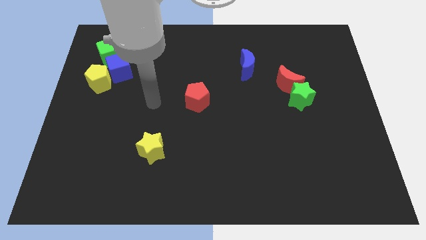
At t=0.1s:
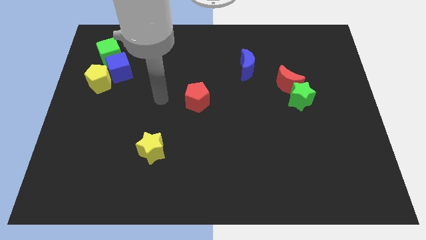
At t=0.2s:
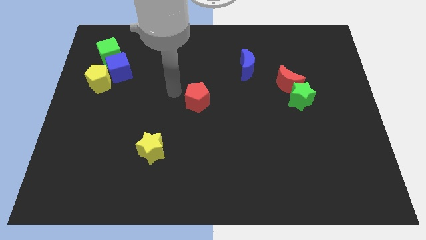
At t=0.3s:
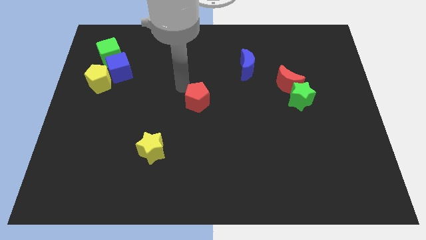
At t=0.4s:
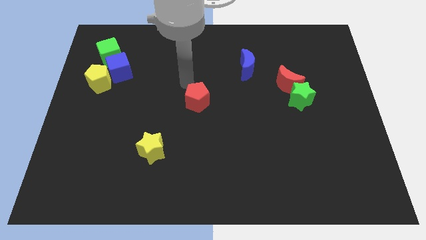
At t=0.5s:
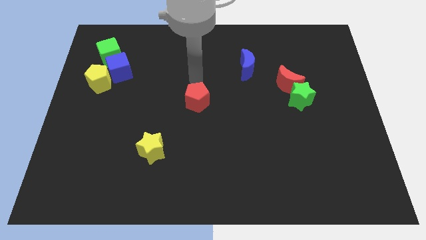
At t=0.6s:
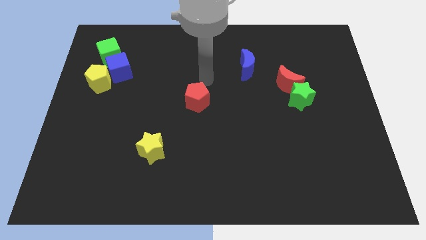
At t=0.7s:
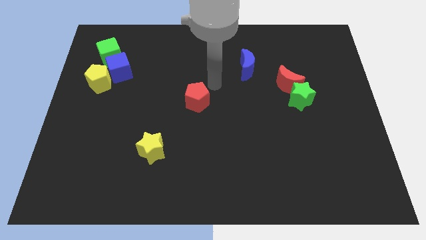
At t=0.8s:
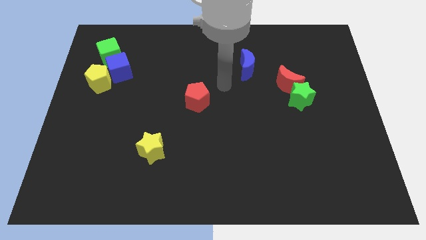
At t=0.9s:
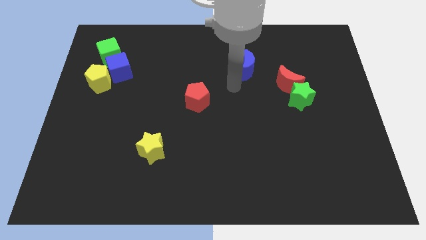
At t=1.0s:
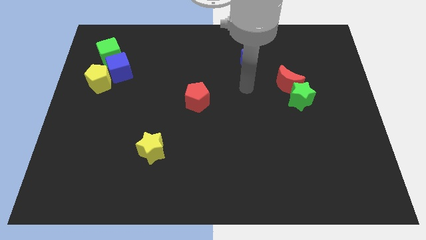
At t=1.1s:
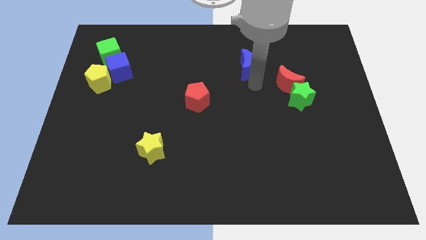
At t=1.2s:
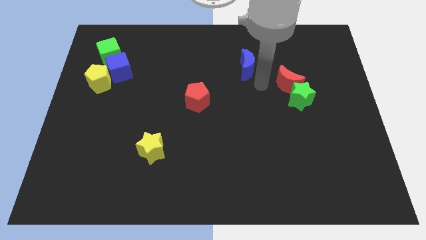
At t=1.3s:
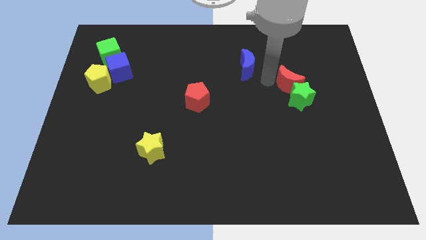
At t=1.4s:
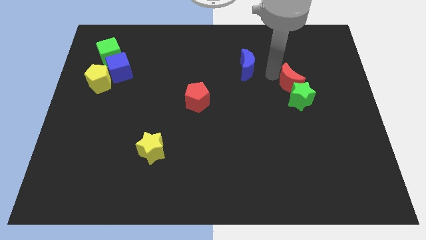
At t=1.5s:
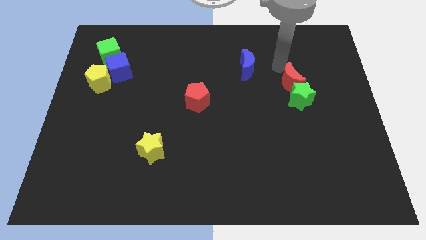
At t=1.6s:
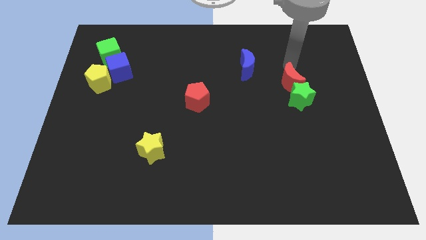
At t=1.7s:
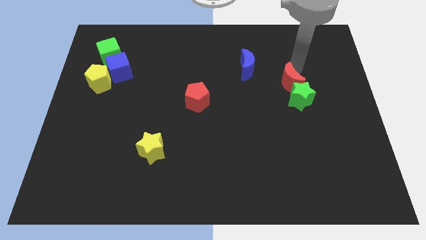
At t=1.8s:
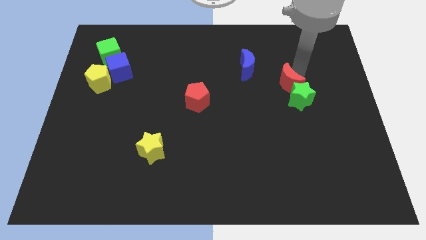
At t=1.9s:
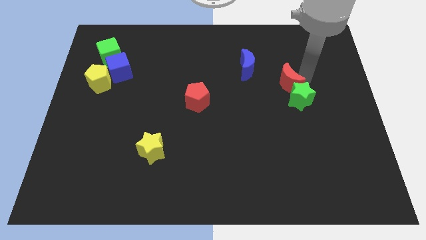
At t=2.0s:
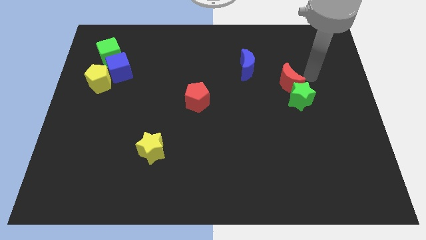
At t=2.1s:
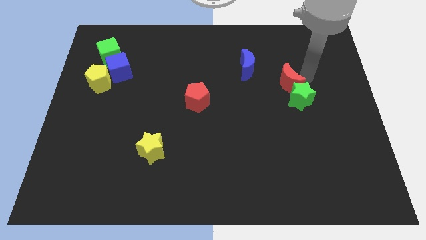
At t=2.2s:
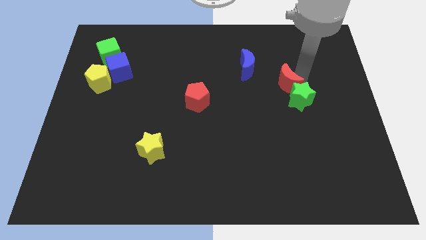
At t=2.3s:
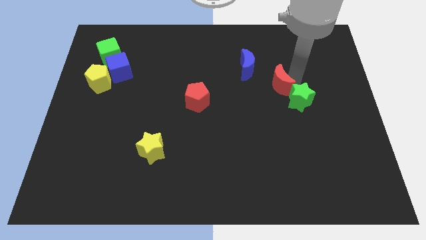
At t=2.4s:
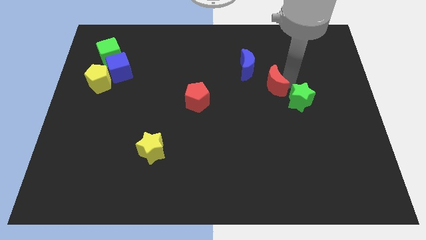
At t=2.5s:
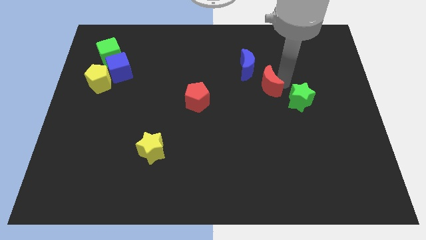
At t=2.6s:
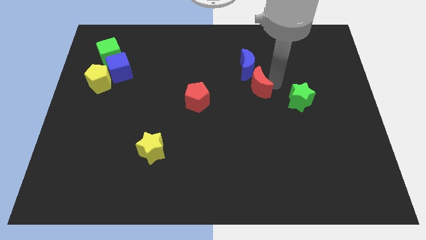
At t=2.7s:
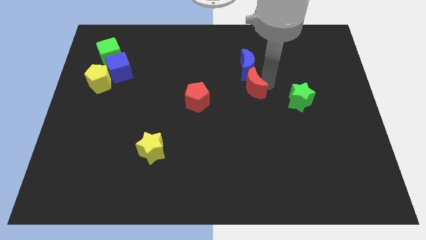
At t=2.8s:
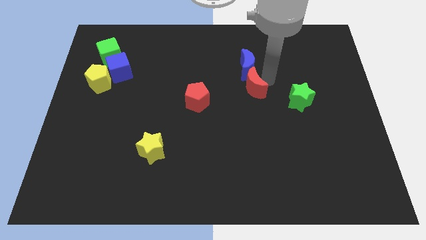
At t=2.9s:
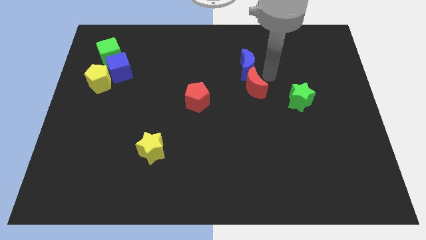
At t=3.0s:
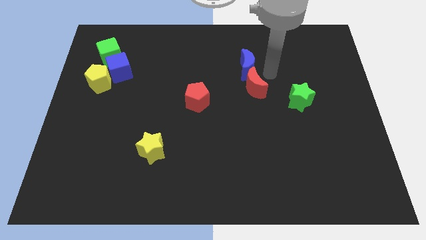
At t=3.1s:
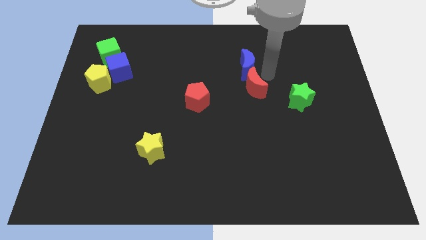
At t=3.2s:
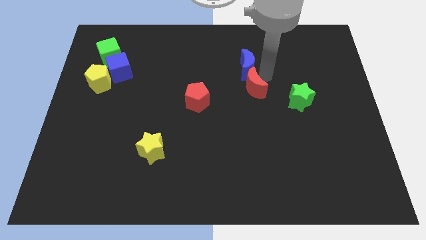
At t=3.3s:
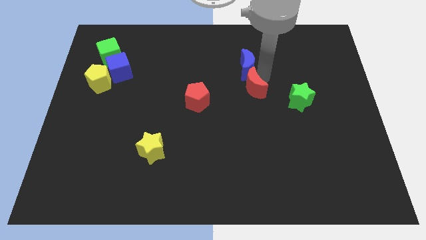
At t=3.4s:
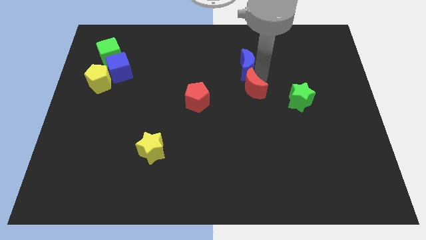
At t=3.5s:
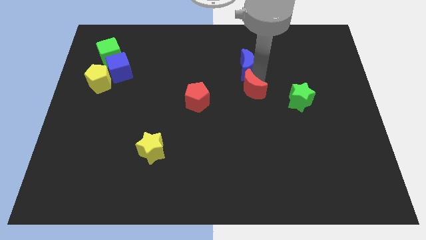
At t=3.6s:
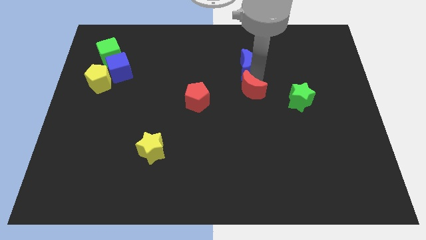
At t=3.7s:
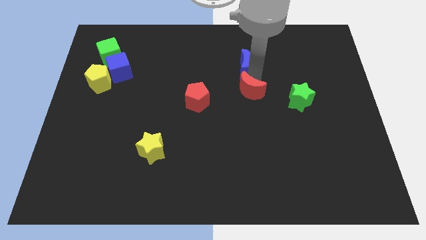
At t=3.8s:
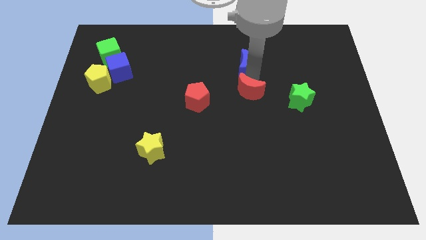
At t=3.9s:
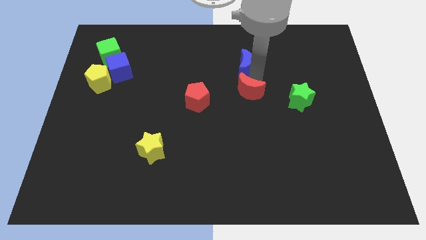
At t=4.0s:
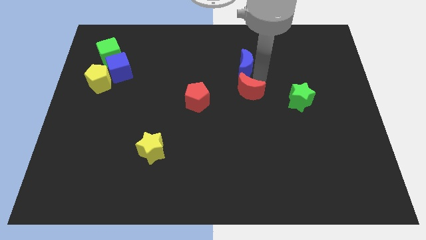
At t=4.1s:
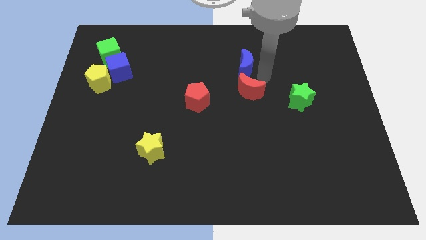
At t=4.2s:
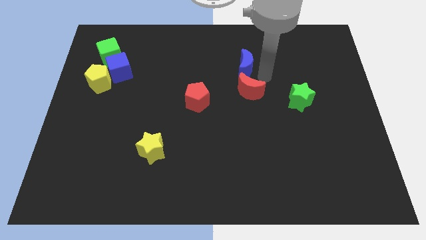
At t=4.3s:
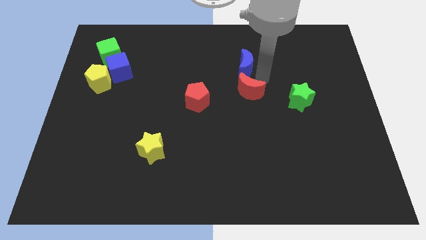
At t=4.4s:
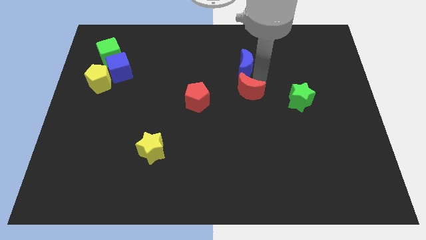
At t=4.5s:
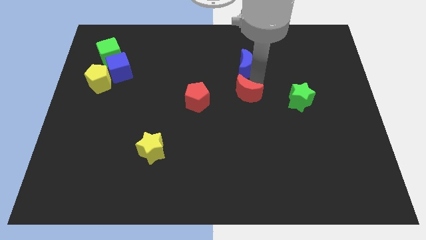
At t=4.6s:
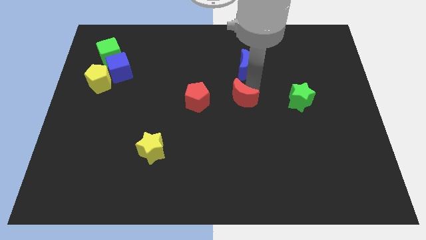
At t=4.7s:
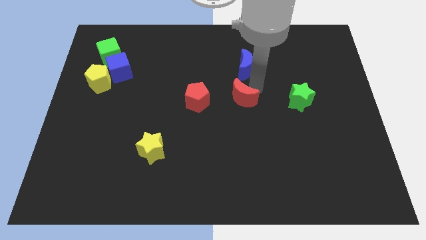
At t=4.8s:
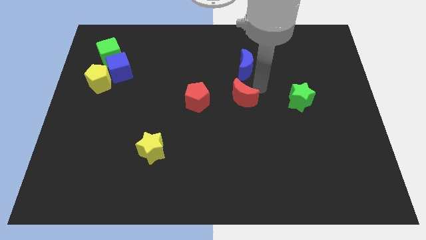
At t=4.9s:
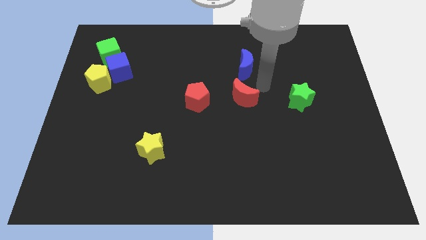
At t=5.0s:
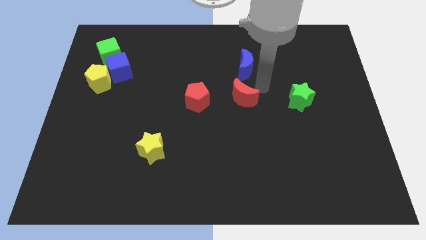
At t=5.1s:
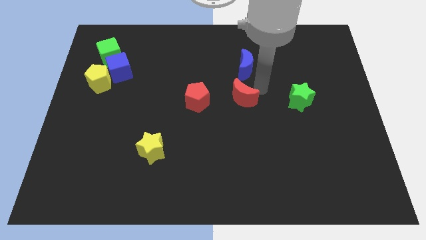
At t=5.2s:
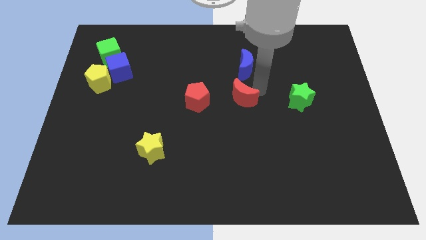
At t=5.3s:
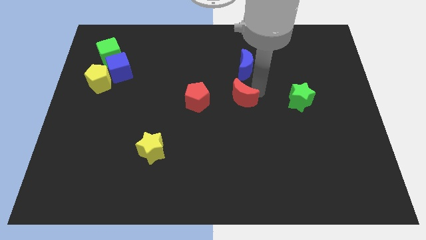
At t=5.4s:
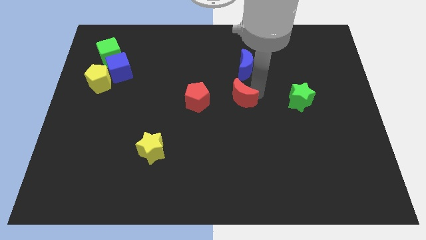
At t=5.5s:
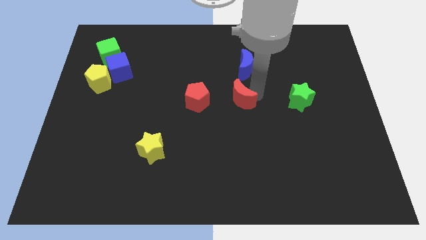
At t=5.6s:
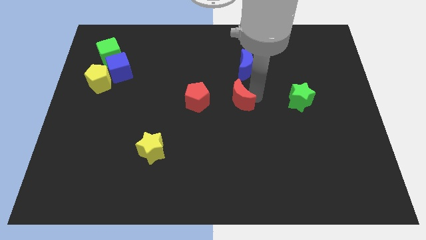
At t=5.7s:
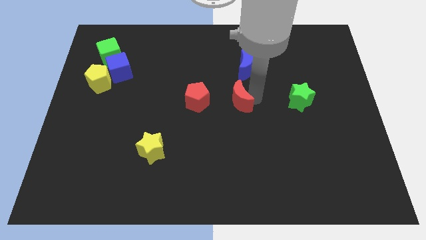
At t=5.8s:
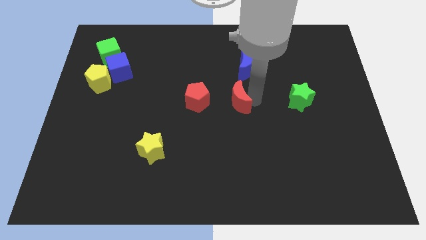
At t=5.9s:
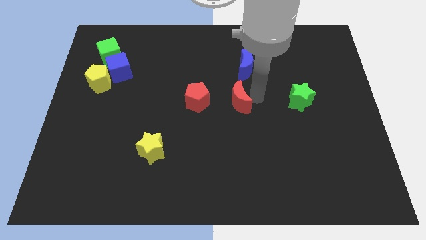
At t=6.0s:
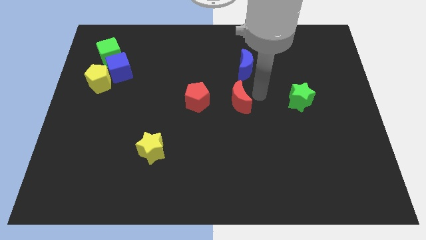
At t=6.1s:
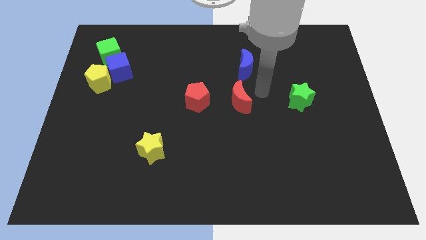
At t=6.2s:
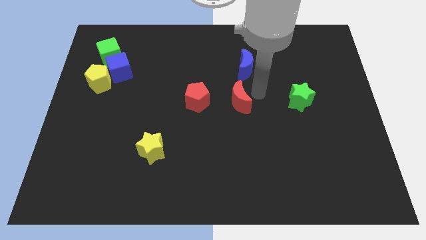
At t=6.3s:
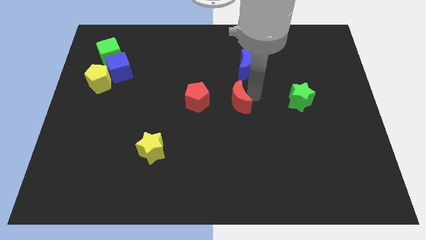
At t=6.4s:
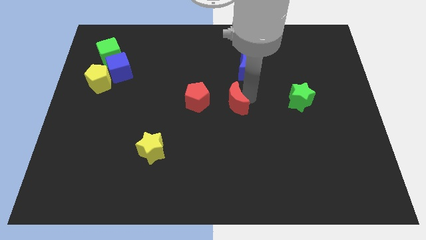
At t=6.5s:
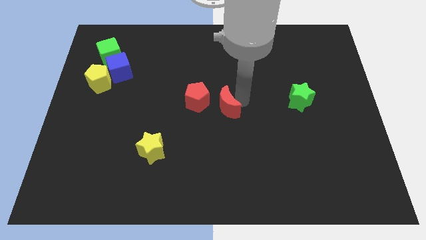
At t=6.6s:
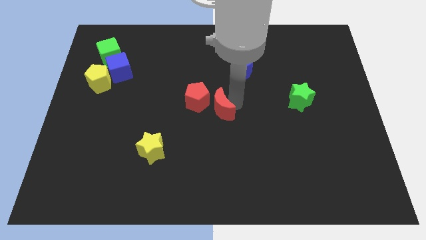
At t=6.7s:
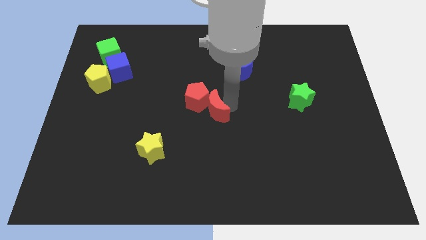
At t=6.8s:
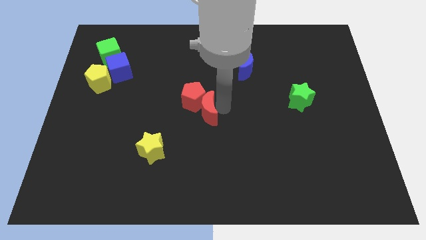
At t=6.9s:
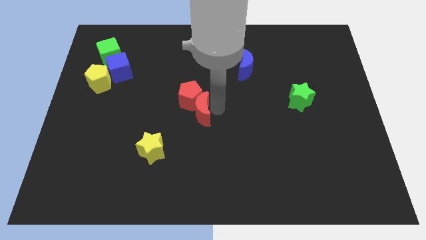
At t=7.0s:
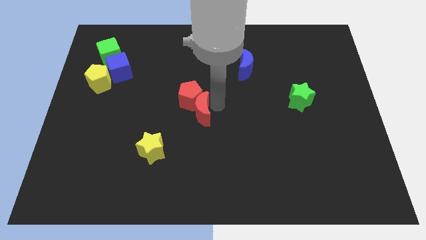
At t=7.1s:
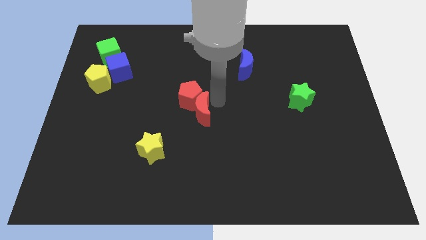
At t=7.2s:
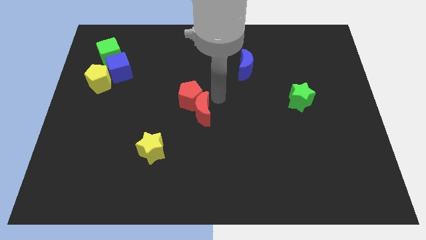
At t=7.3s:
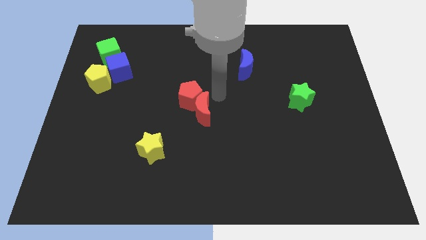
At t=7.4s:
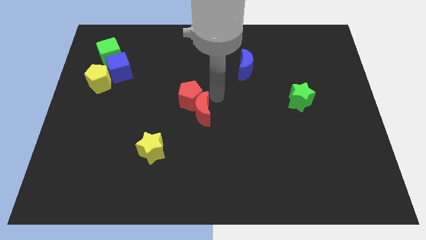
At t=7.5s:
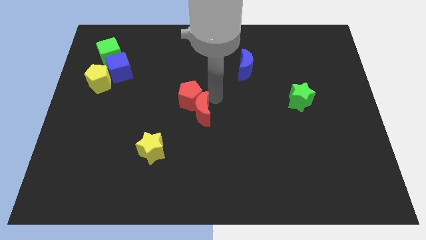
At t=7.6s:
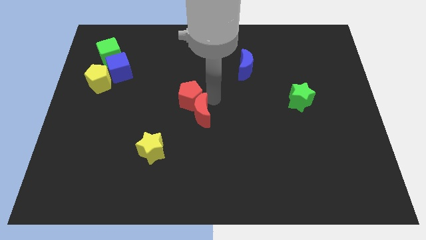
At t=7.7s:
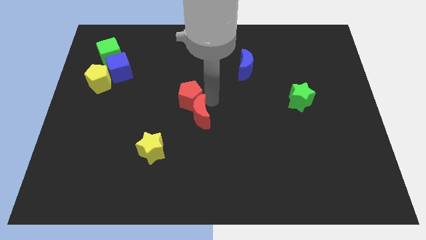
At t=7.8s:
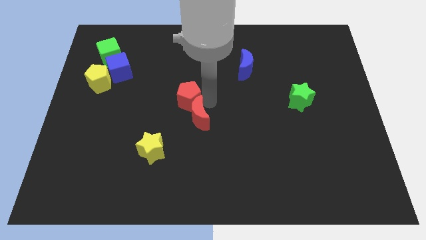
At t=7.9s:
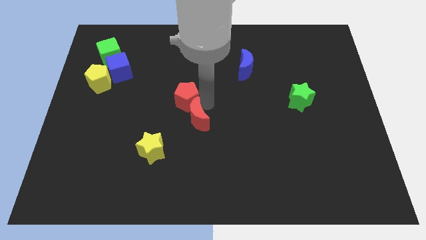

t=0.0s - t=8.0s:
move the red moon to the top right side of the yellow star
